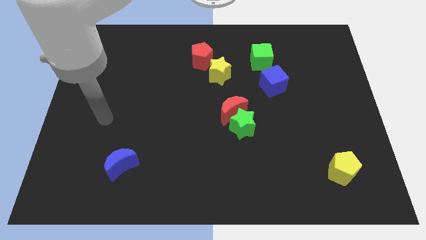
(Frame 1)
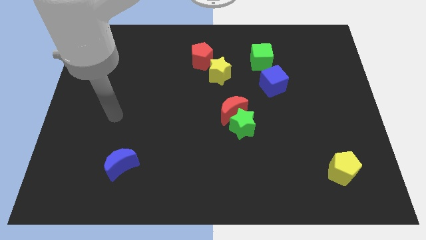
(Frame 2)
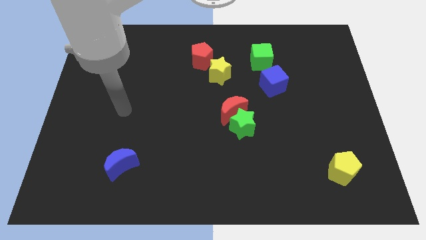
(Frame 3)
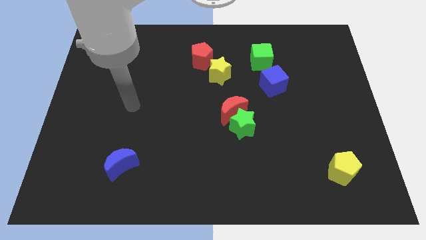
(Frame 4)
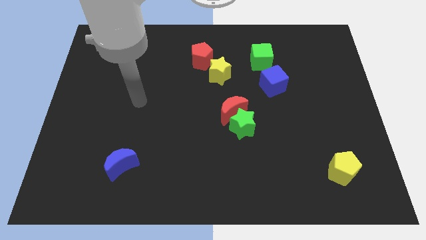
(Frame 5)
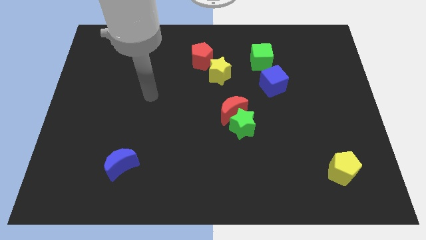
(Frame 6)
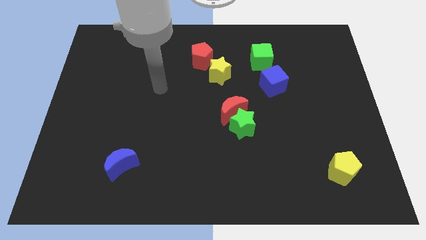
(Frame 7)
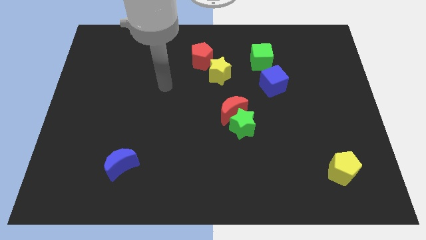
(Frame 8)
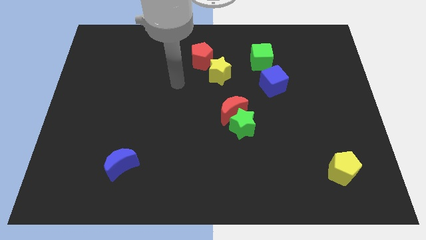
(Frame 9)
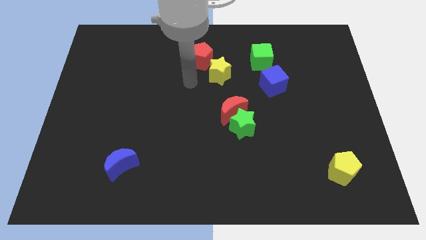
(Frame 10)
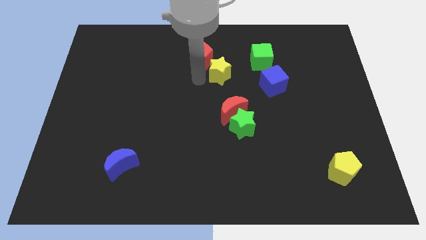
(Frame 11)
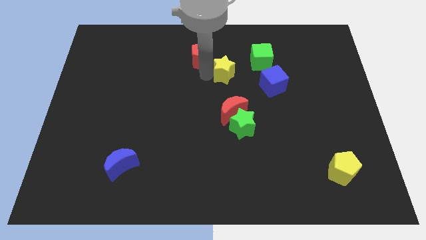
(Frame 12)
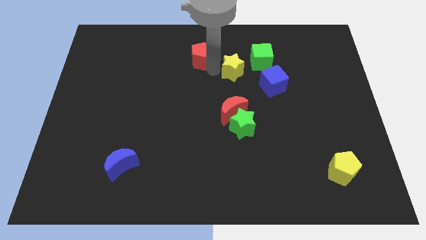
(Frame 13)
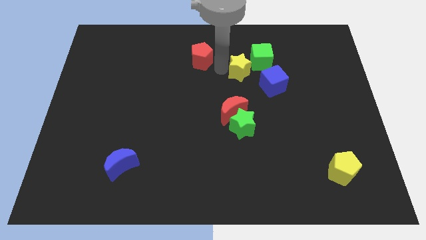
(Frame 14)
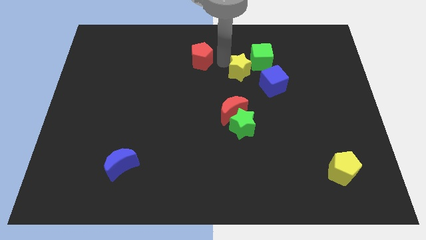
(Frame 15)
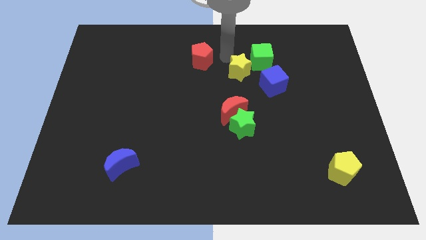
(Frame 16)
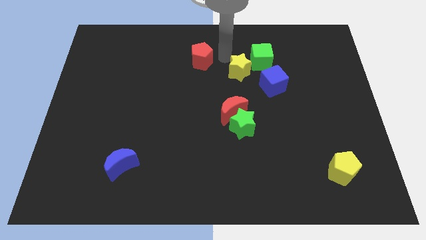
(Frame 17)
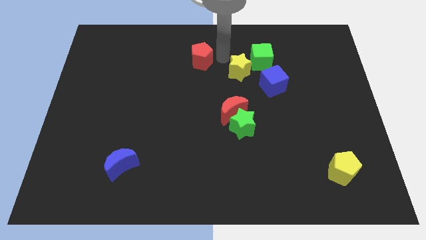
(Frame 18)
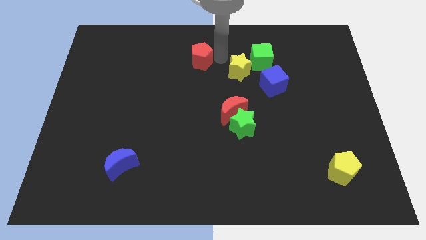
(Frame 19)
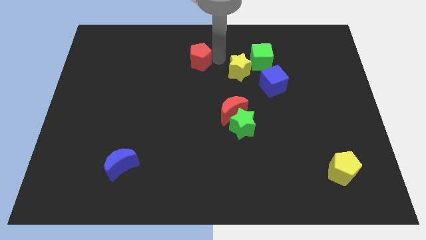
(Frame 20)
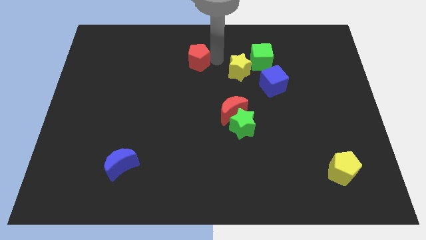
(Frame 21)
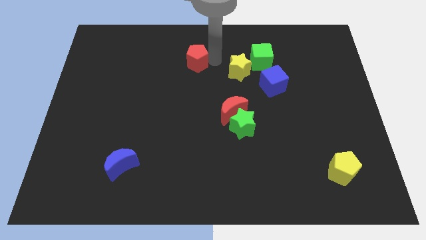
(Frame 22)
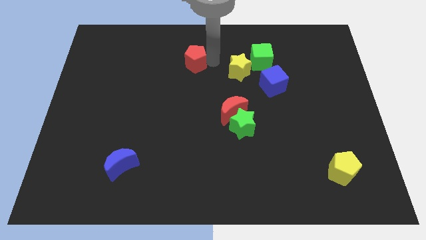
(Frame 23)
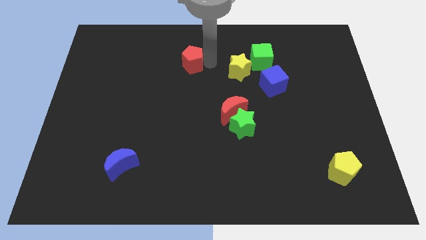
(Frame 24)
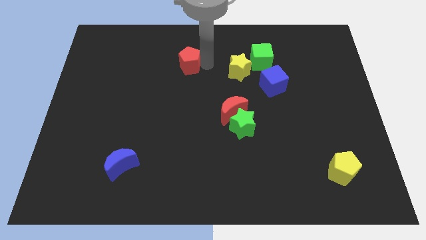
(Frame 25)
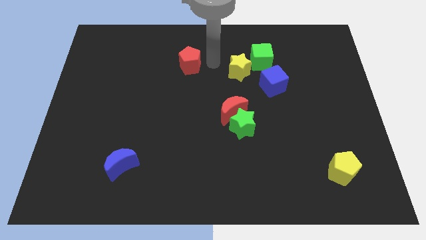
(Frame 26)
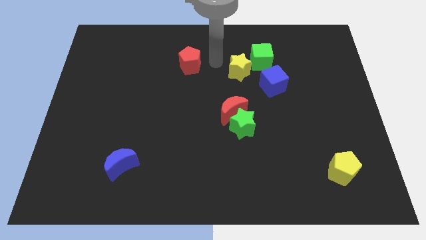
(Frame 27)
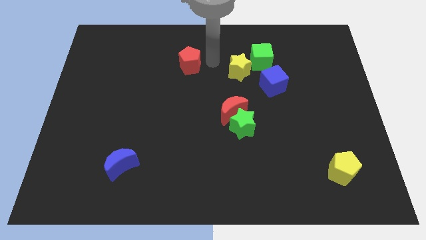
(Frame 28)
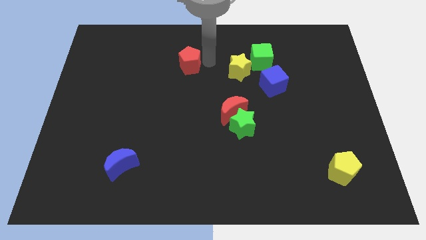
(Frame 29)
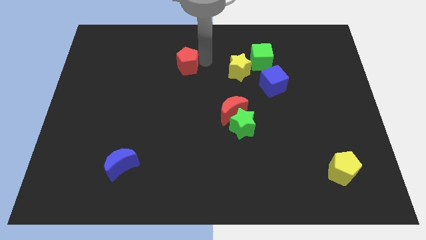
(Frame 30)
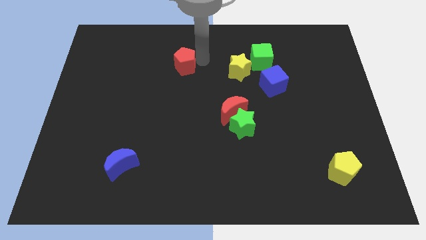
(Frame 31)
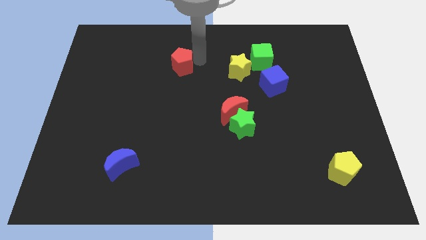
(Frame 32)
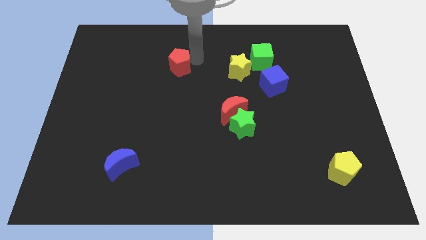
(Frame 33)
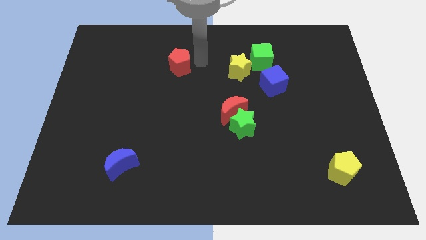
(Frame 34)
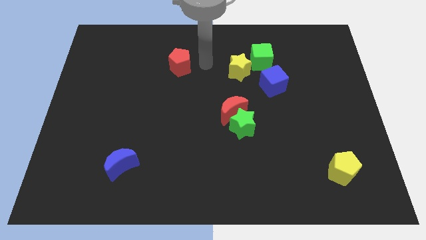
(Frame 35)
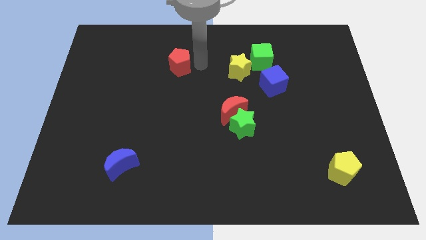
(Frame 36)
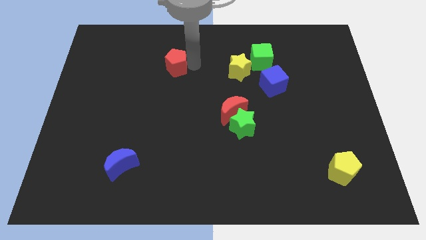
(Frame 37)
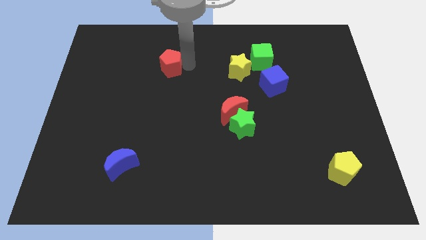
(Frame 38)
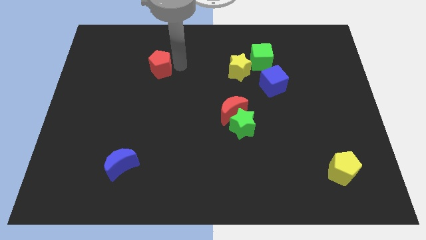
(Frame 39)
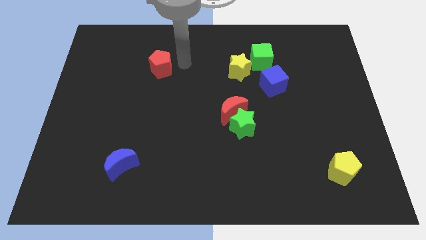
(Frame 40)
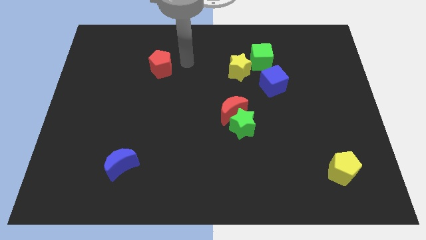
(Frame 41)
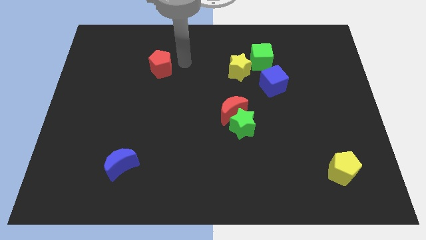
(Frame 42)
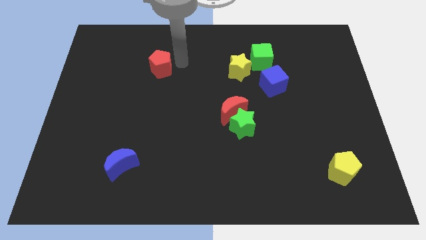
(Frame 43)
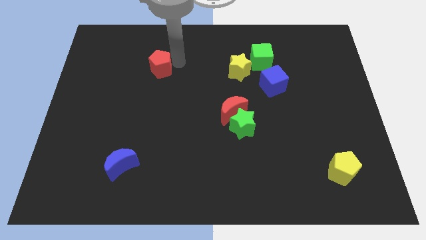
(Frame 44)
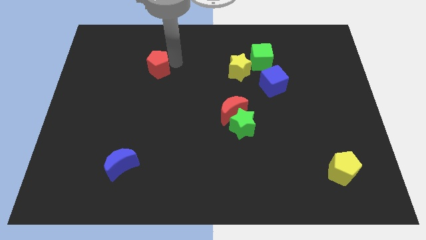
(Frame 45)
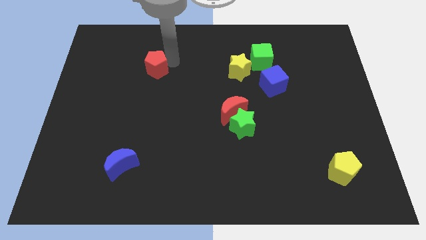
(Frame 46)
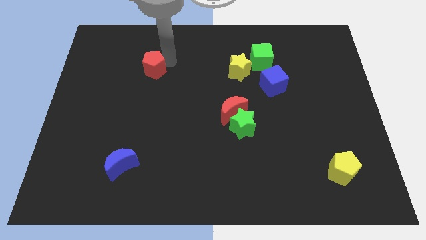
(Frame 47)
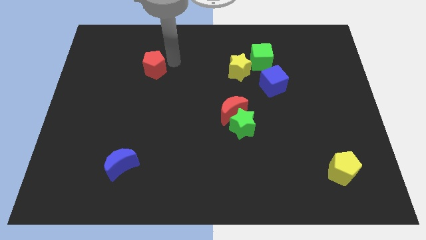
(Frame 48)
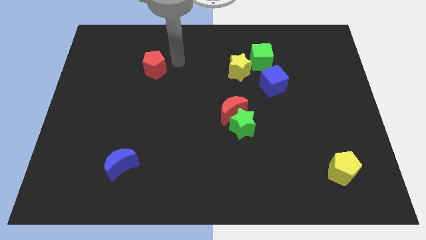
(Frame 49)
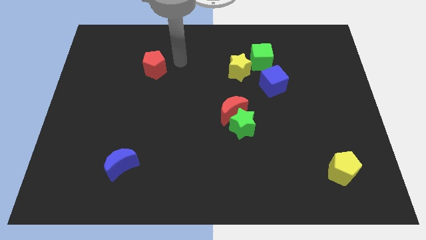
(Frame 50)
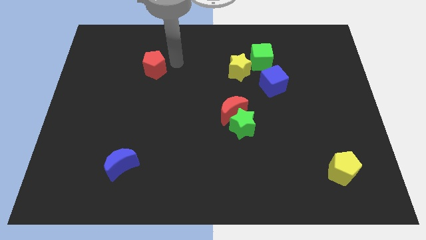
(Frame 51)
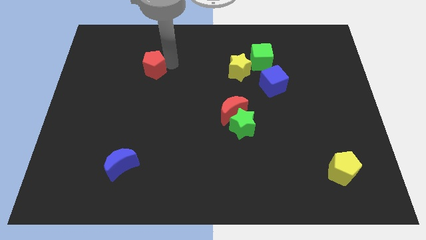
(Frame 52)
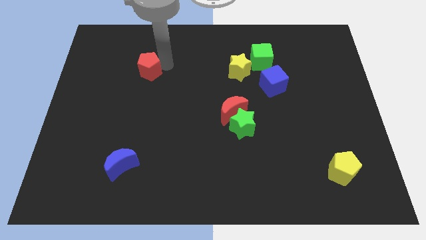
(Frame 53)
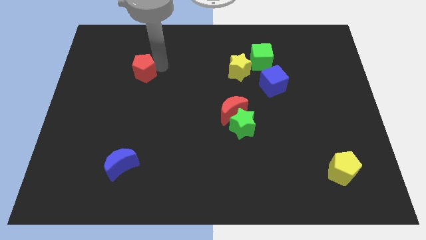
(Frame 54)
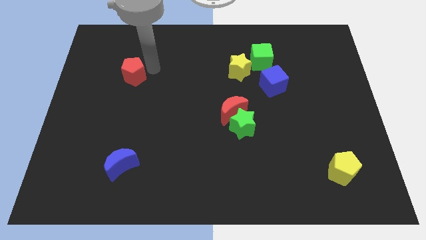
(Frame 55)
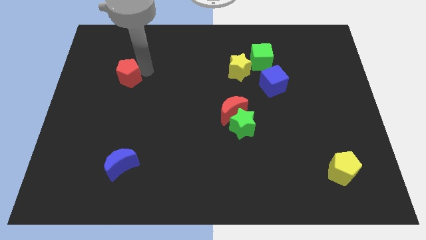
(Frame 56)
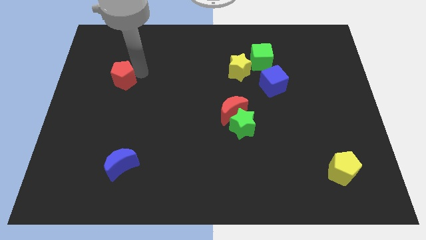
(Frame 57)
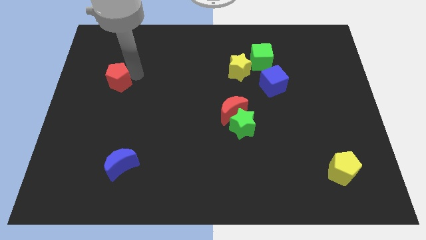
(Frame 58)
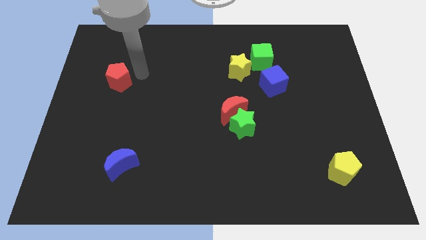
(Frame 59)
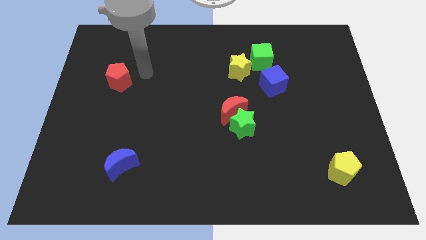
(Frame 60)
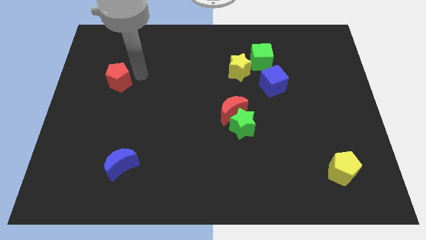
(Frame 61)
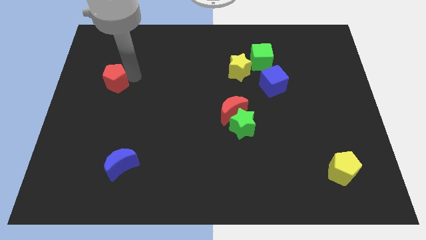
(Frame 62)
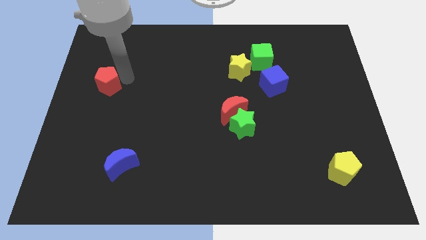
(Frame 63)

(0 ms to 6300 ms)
move the red pentagon to the left side of the board
